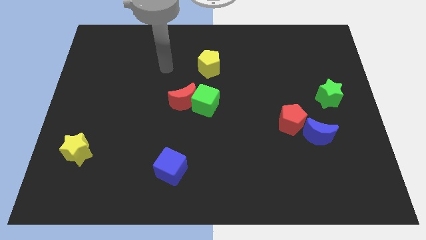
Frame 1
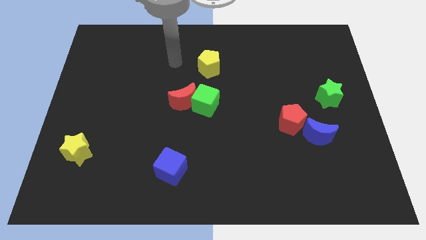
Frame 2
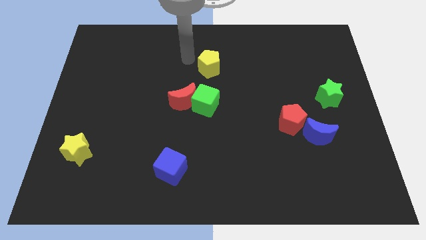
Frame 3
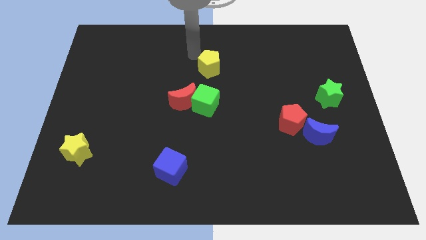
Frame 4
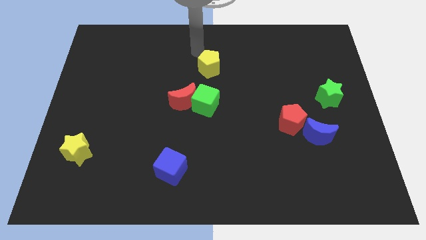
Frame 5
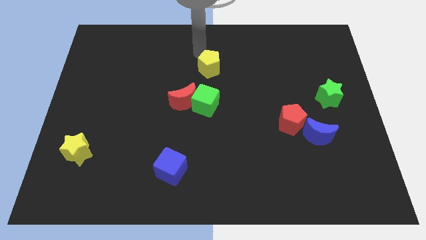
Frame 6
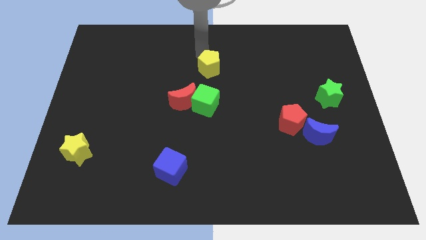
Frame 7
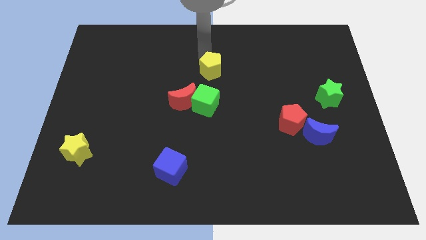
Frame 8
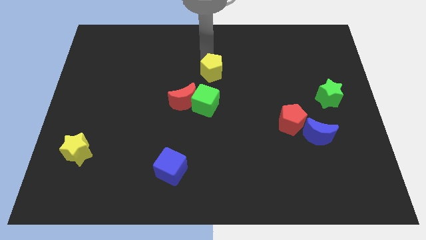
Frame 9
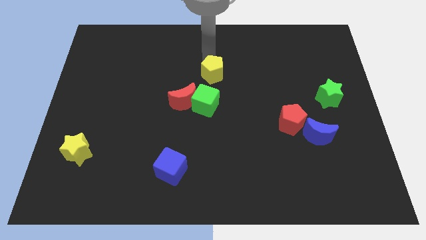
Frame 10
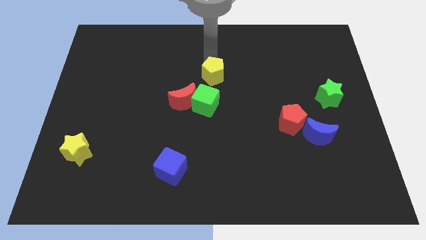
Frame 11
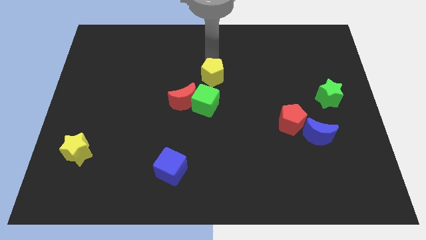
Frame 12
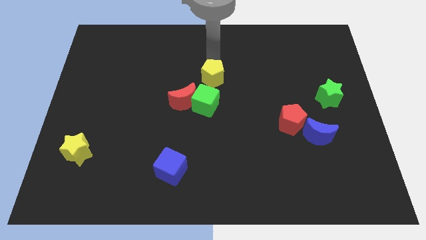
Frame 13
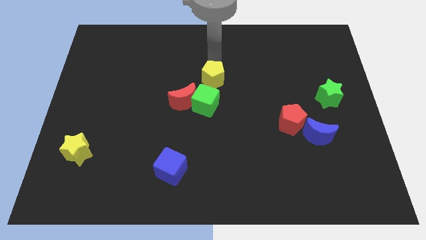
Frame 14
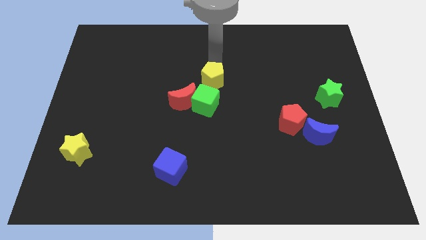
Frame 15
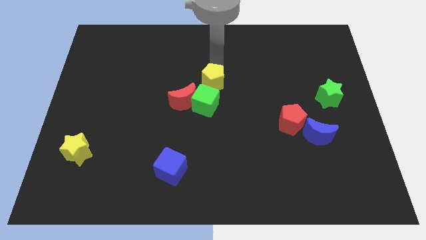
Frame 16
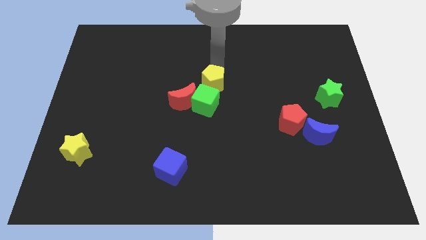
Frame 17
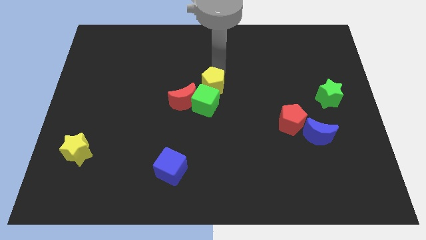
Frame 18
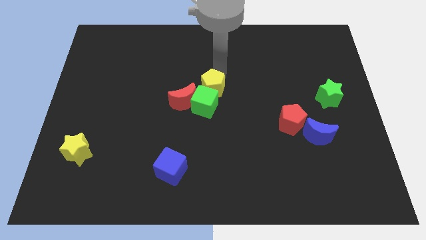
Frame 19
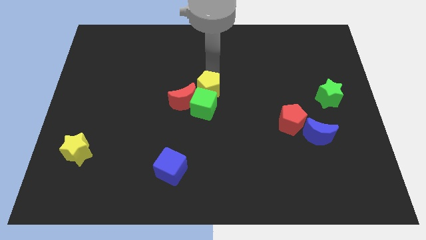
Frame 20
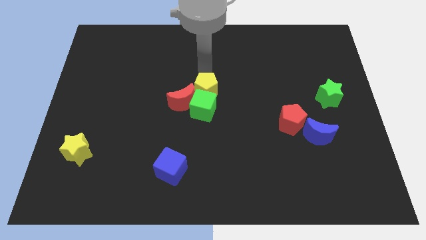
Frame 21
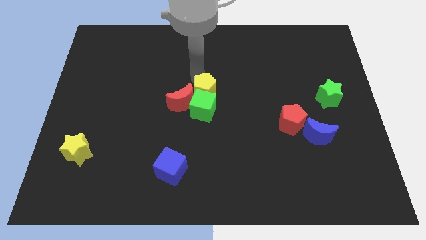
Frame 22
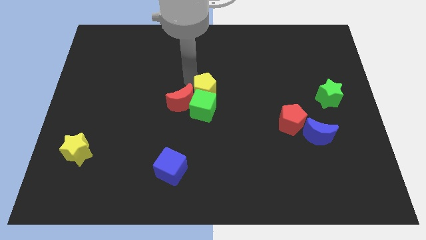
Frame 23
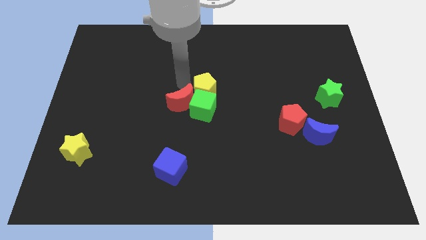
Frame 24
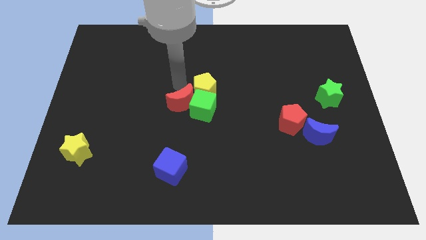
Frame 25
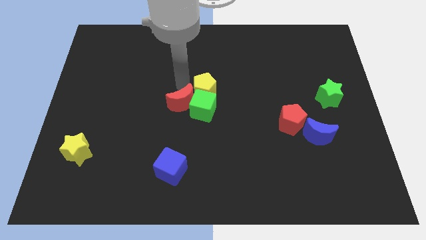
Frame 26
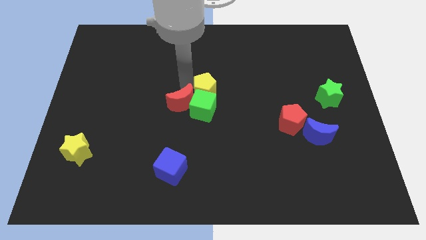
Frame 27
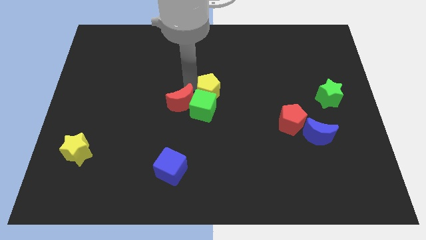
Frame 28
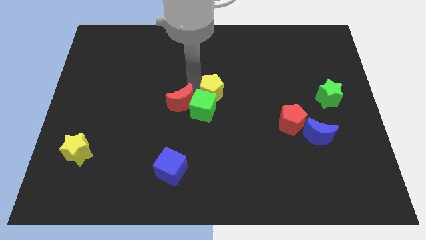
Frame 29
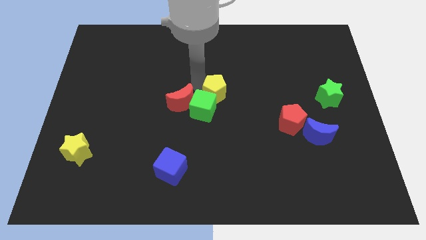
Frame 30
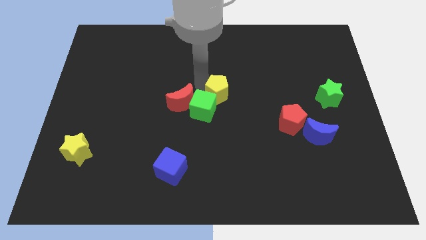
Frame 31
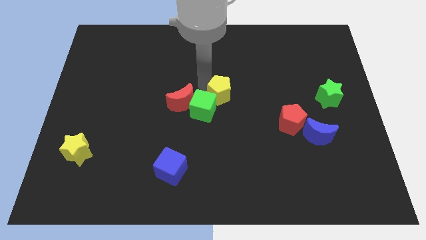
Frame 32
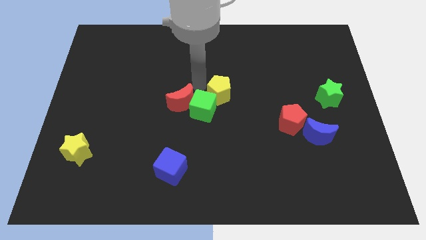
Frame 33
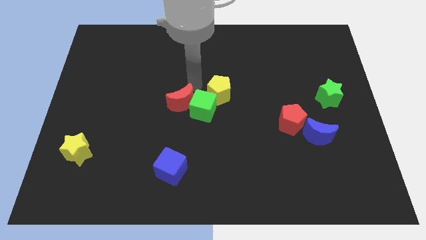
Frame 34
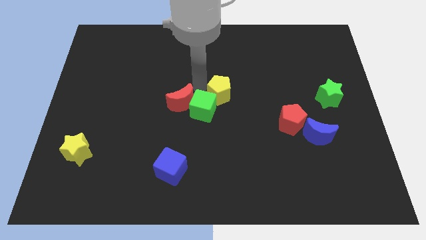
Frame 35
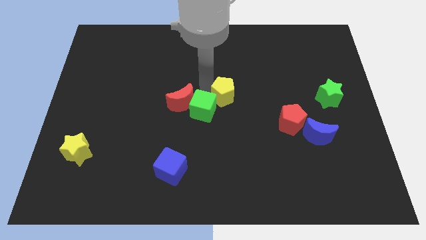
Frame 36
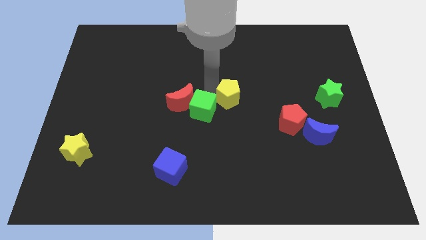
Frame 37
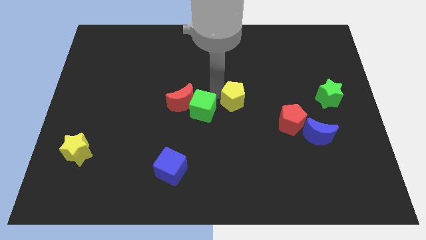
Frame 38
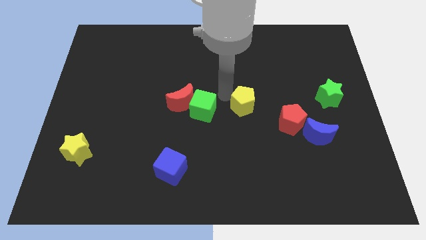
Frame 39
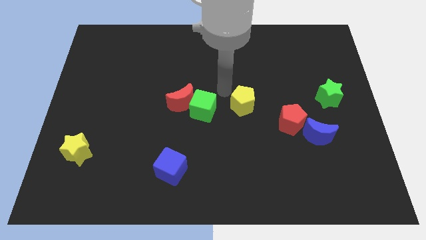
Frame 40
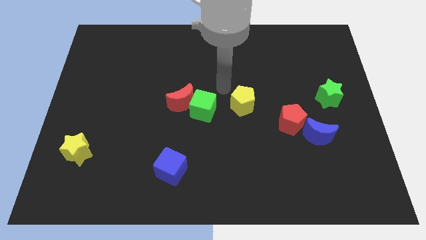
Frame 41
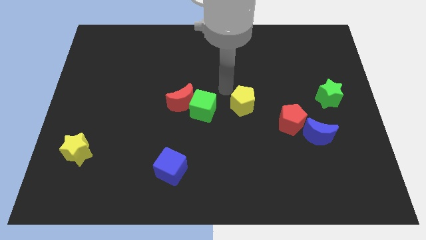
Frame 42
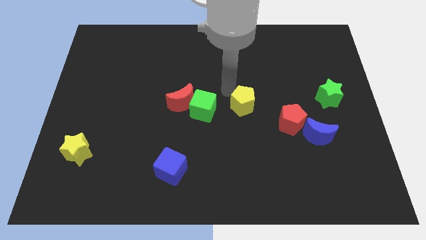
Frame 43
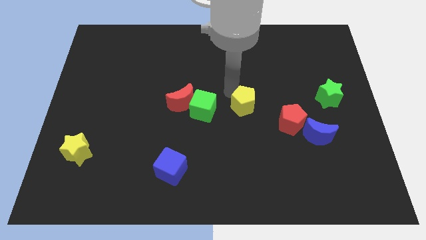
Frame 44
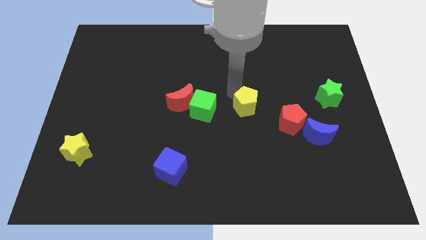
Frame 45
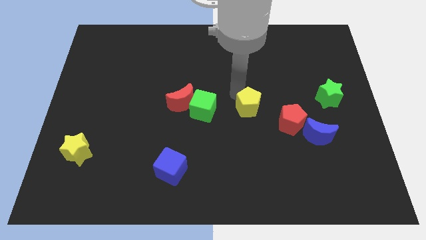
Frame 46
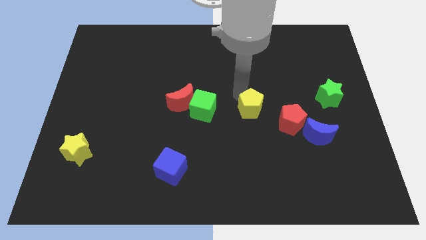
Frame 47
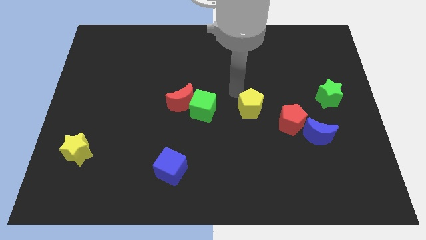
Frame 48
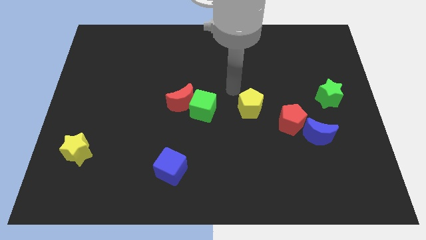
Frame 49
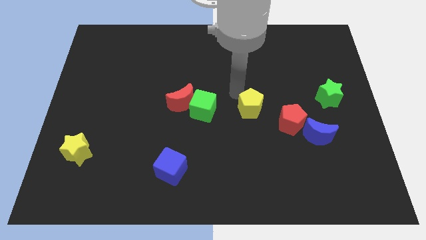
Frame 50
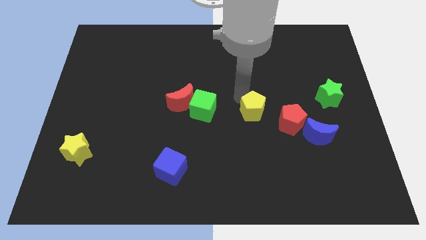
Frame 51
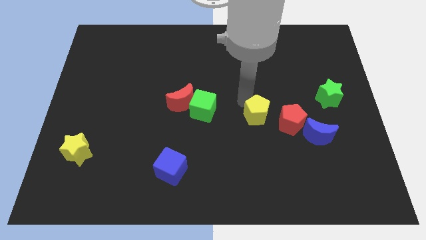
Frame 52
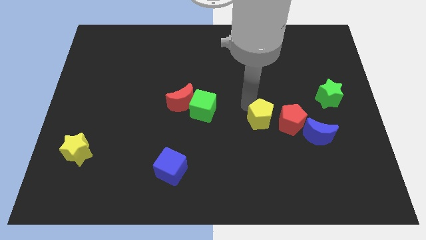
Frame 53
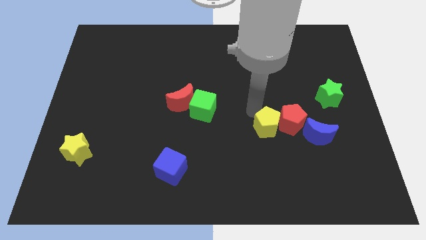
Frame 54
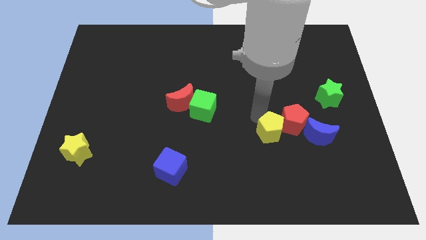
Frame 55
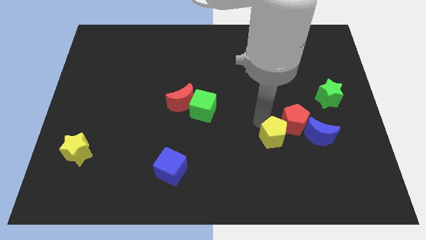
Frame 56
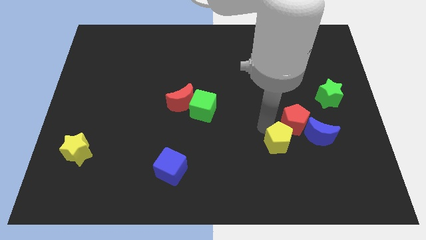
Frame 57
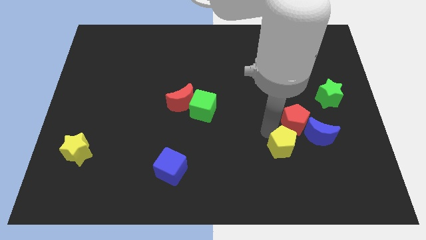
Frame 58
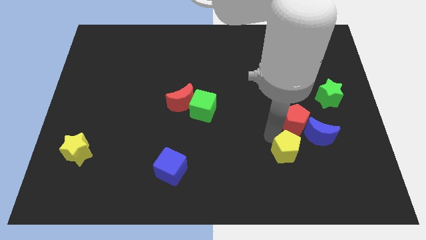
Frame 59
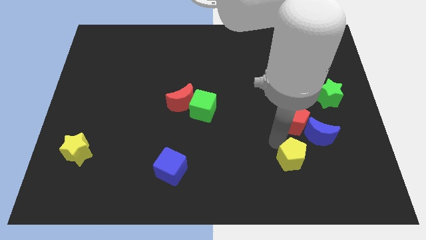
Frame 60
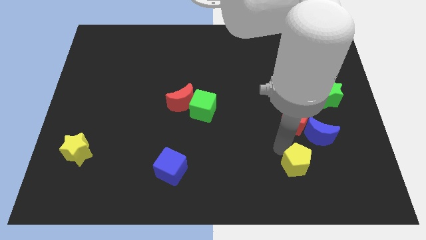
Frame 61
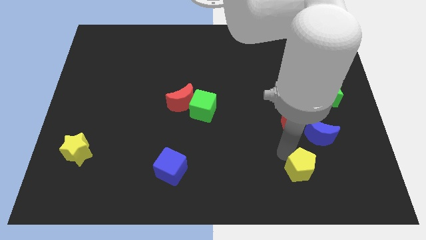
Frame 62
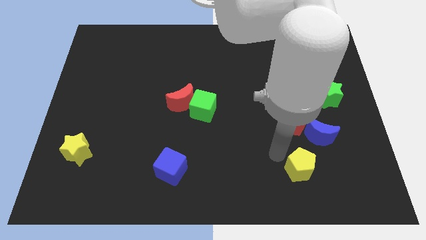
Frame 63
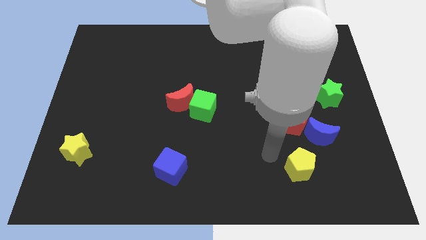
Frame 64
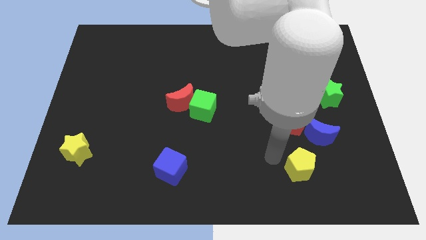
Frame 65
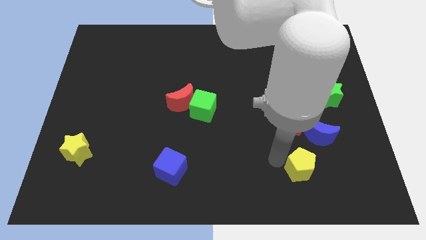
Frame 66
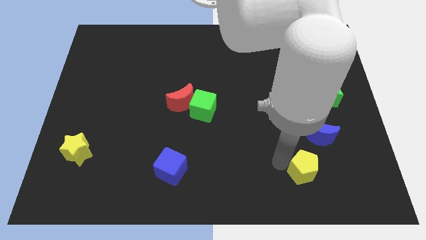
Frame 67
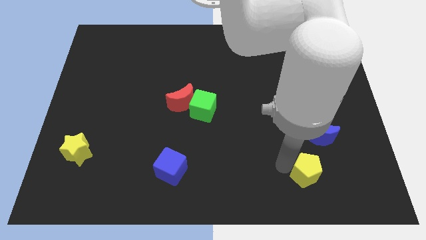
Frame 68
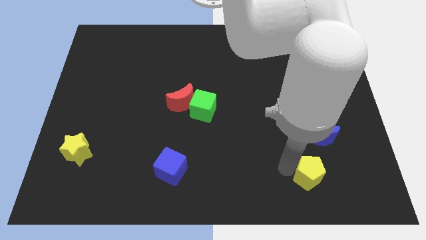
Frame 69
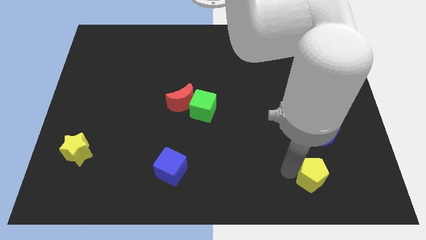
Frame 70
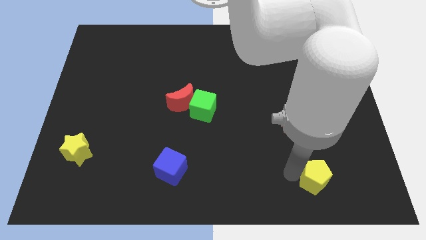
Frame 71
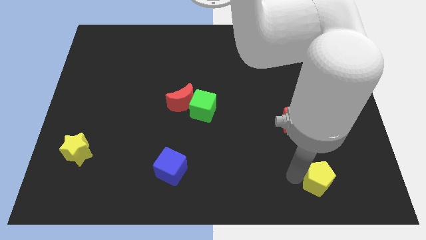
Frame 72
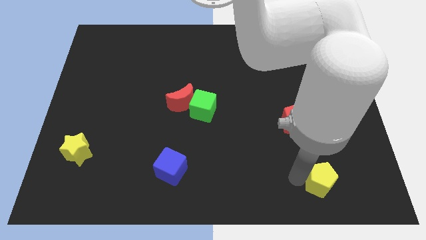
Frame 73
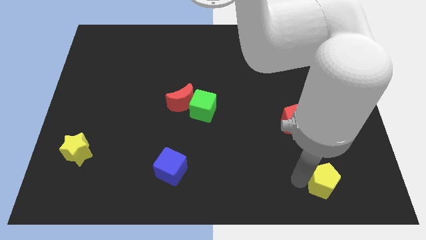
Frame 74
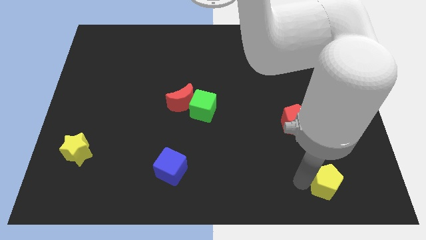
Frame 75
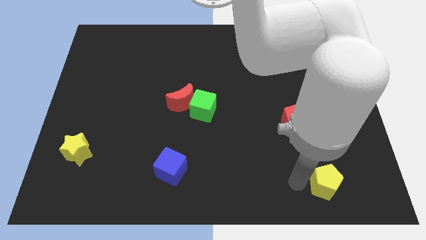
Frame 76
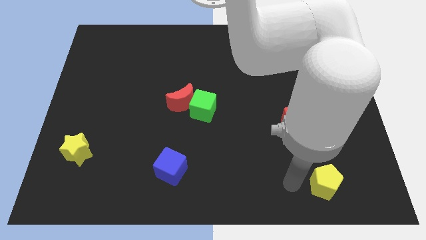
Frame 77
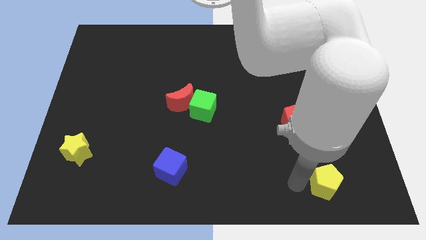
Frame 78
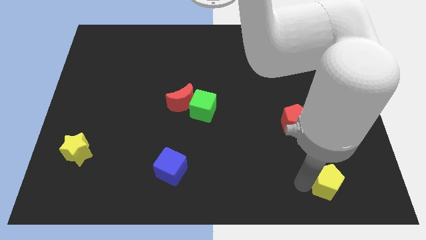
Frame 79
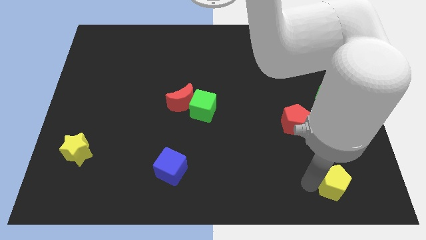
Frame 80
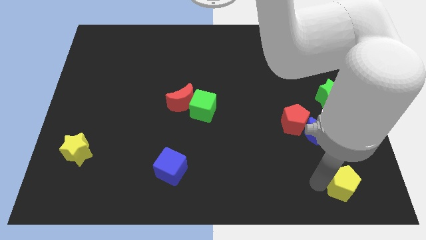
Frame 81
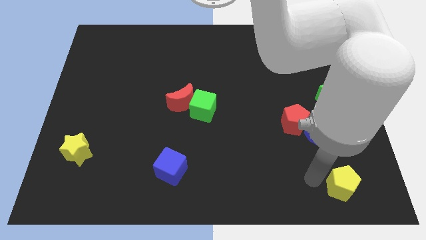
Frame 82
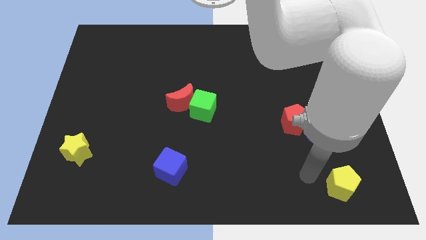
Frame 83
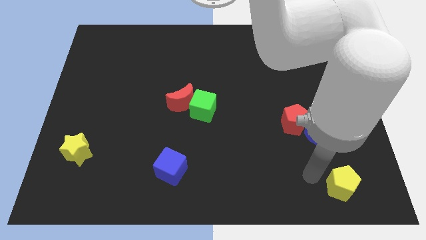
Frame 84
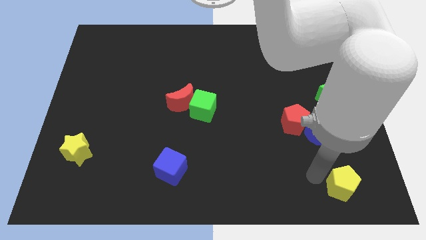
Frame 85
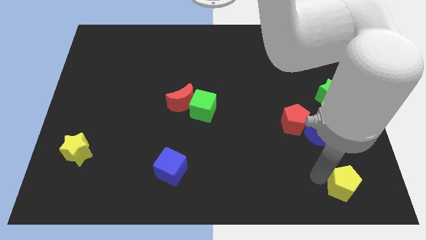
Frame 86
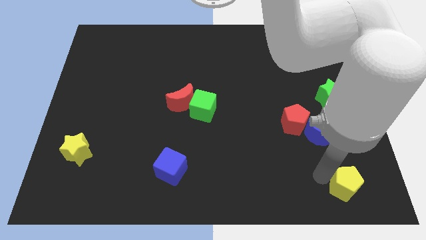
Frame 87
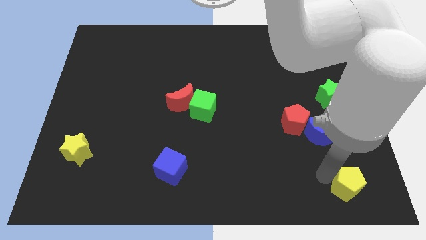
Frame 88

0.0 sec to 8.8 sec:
put the yellow pentagon to the lower right corner
